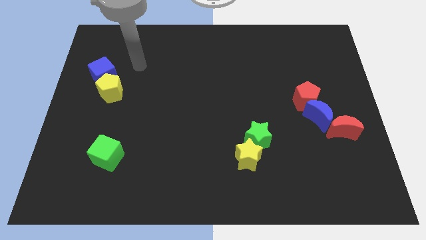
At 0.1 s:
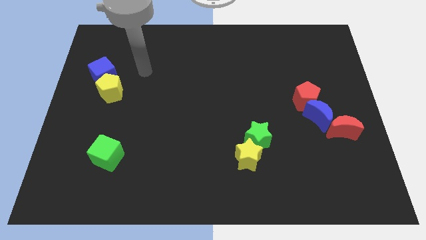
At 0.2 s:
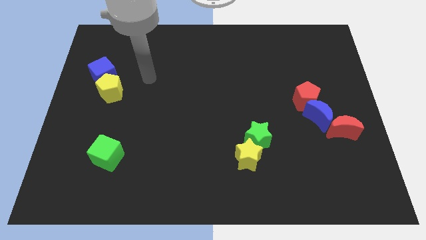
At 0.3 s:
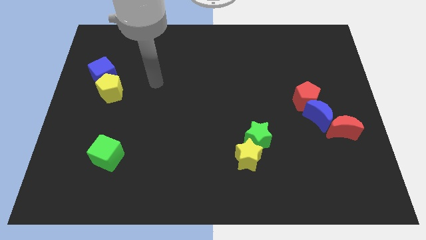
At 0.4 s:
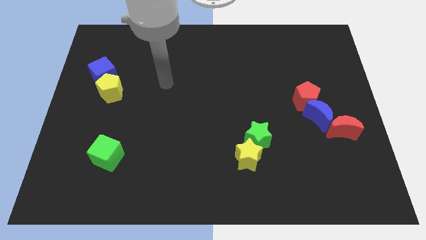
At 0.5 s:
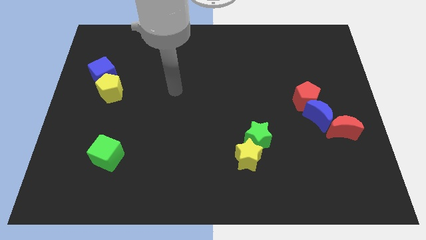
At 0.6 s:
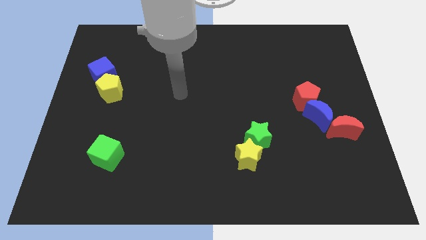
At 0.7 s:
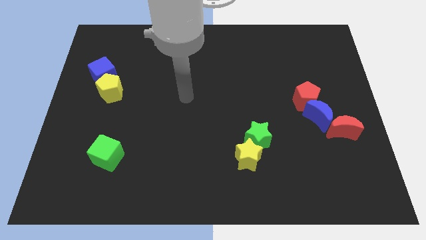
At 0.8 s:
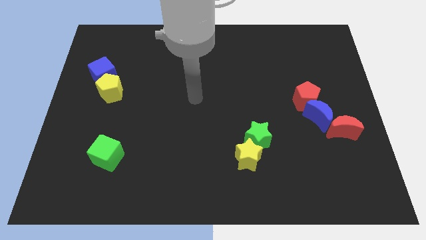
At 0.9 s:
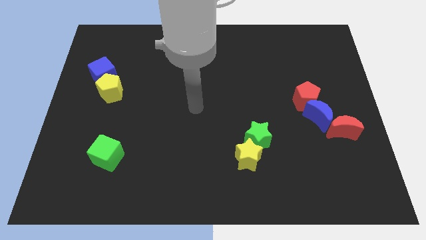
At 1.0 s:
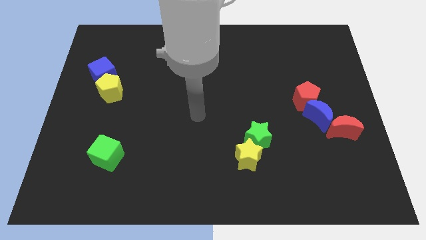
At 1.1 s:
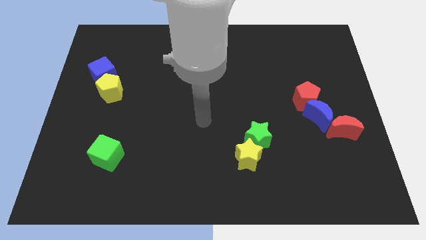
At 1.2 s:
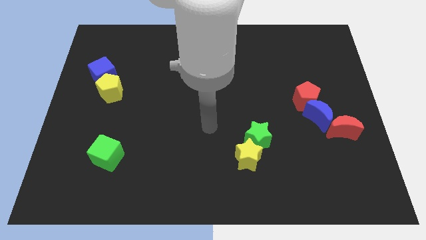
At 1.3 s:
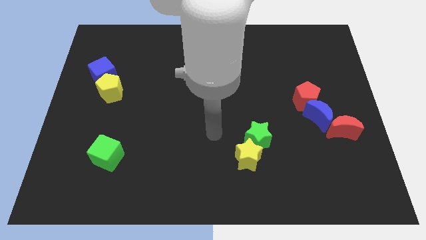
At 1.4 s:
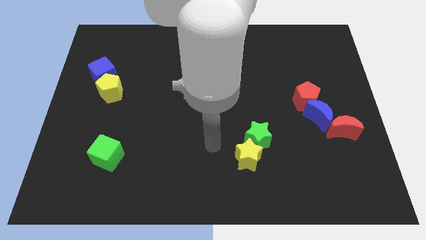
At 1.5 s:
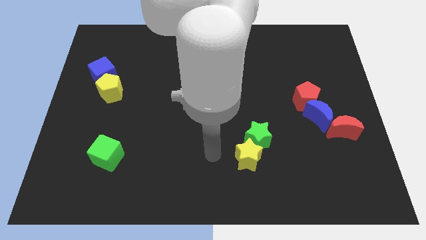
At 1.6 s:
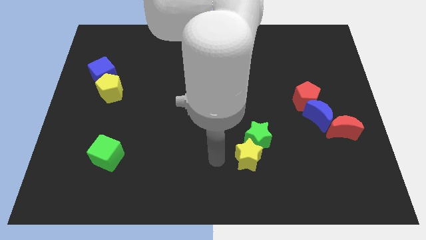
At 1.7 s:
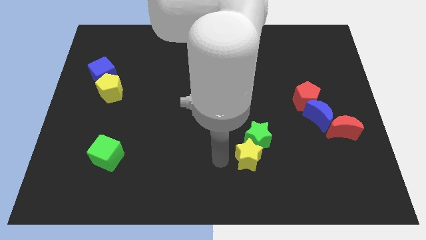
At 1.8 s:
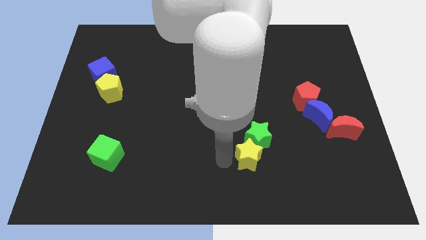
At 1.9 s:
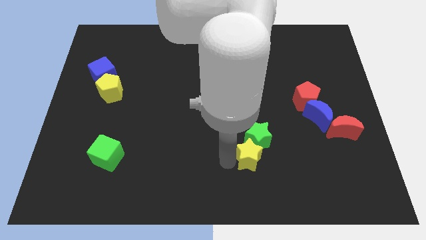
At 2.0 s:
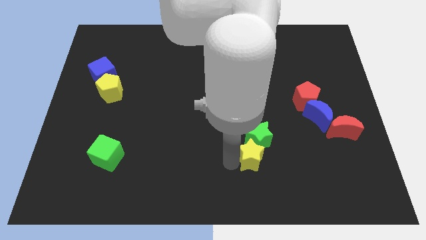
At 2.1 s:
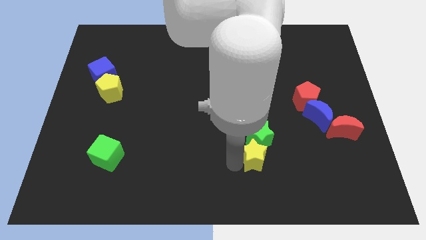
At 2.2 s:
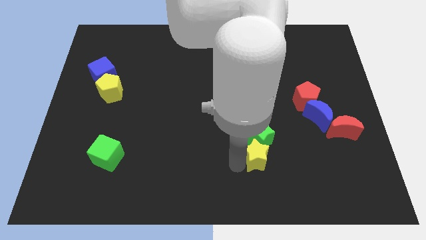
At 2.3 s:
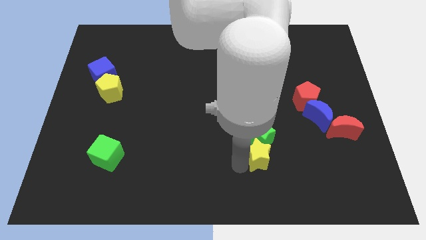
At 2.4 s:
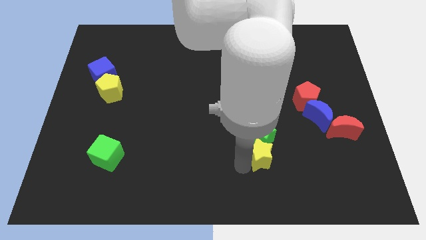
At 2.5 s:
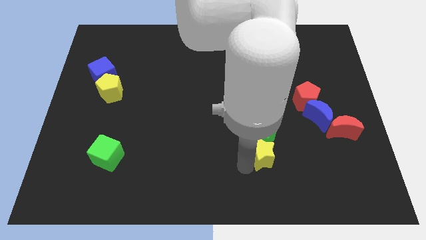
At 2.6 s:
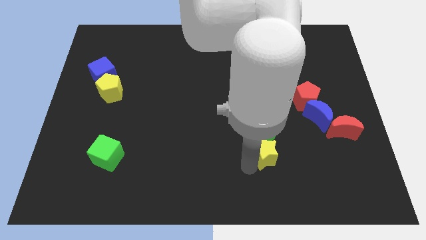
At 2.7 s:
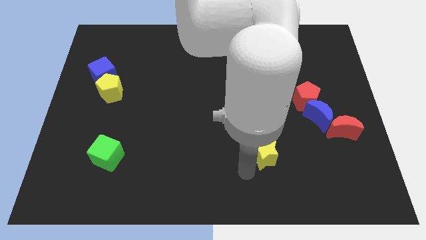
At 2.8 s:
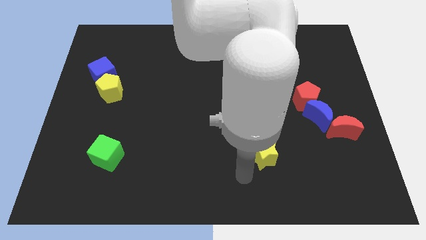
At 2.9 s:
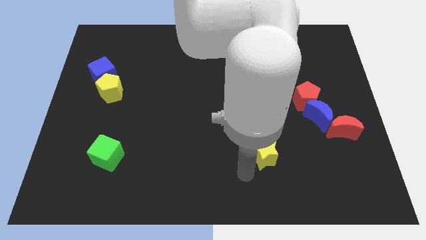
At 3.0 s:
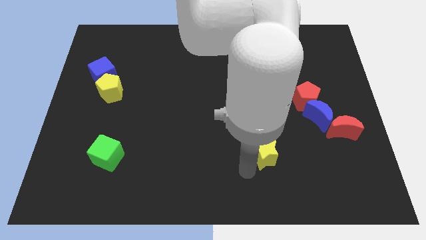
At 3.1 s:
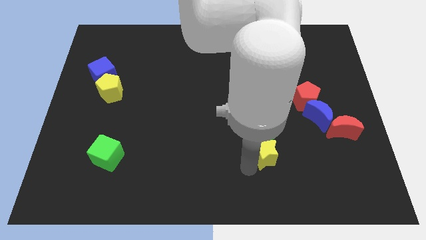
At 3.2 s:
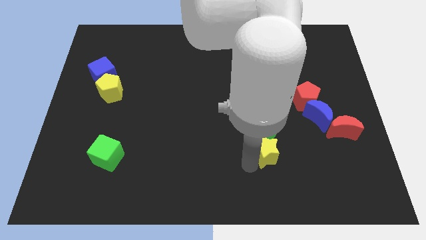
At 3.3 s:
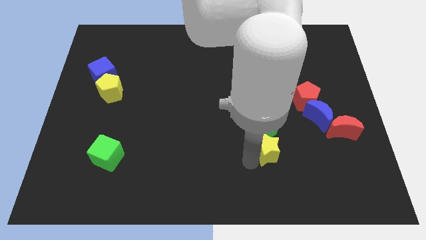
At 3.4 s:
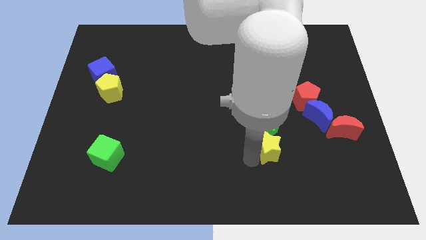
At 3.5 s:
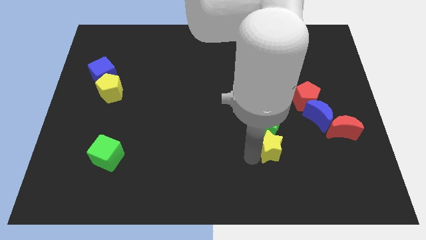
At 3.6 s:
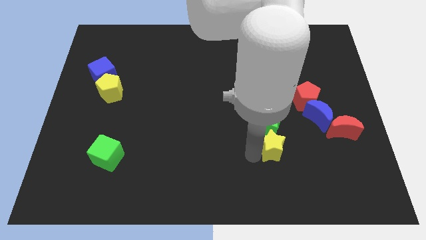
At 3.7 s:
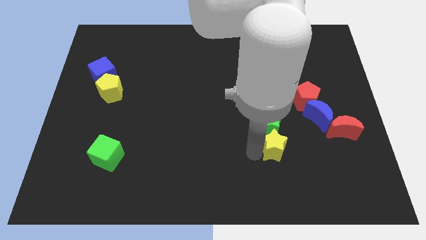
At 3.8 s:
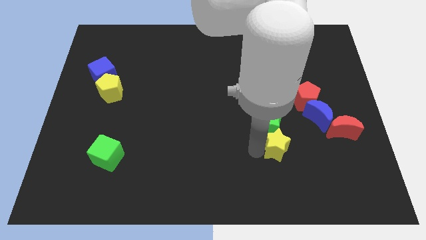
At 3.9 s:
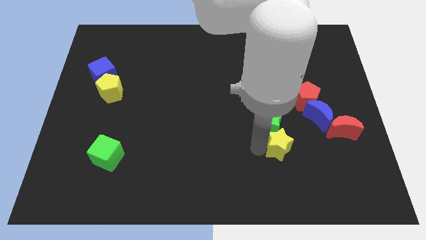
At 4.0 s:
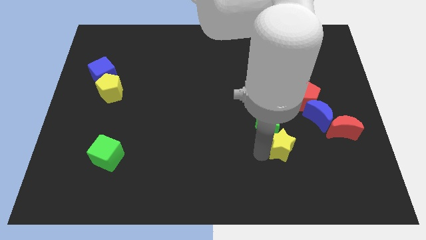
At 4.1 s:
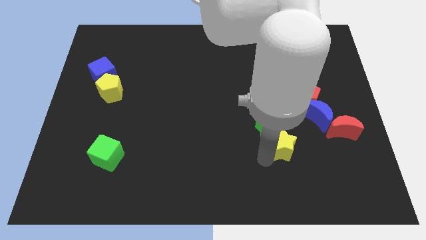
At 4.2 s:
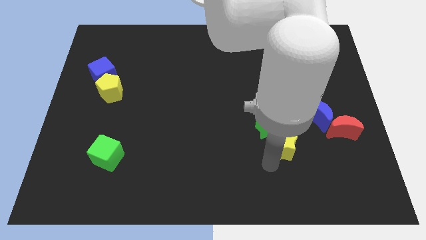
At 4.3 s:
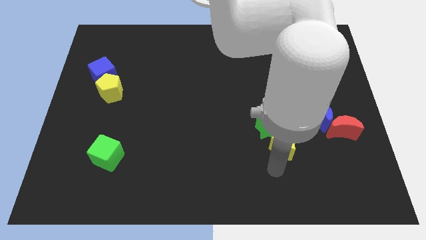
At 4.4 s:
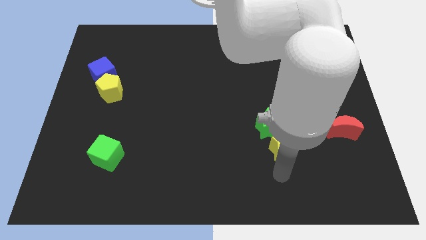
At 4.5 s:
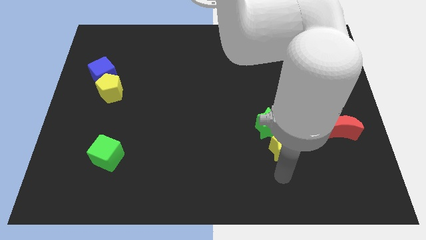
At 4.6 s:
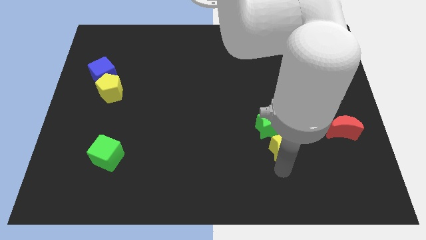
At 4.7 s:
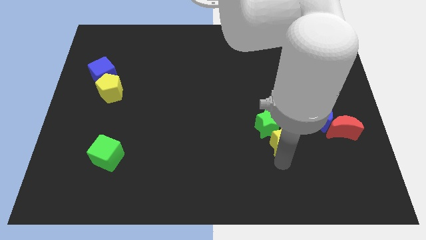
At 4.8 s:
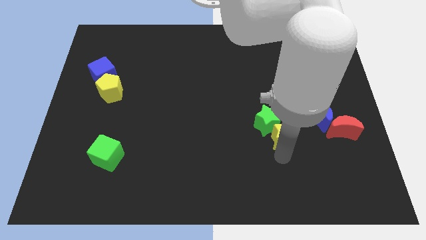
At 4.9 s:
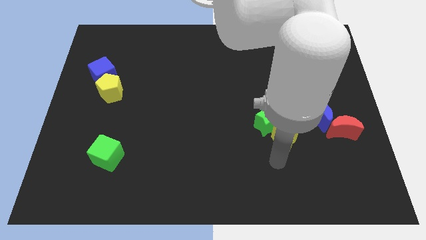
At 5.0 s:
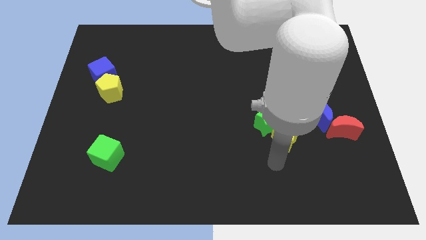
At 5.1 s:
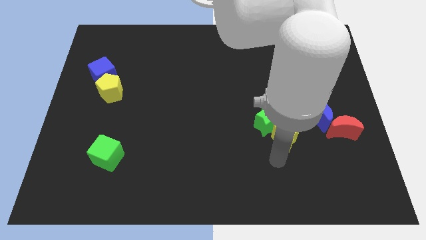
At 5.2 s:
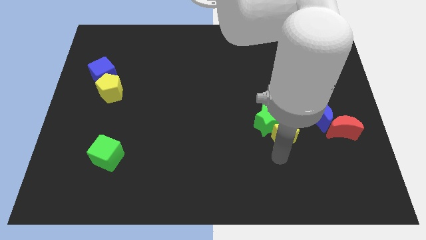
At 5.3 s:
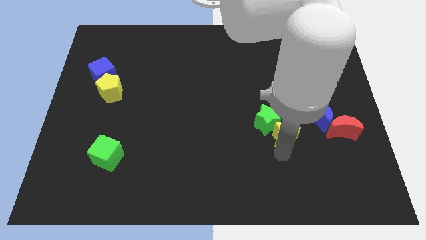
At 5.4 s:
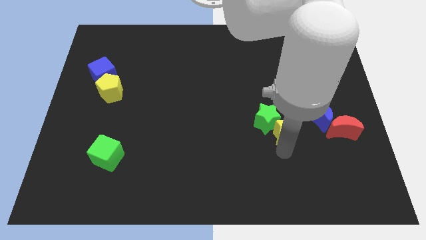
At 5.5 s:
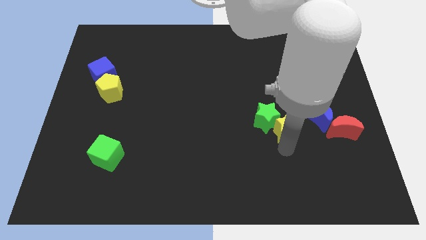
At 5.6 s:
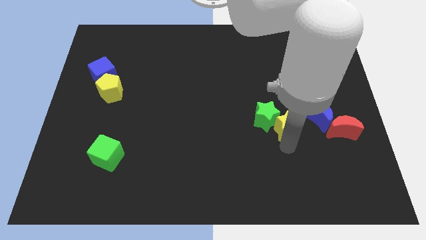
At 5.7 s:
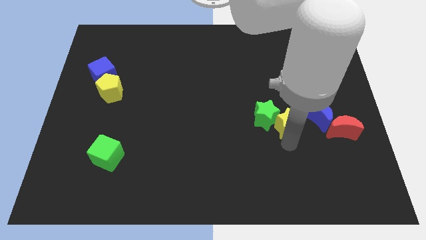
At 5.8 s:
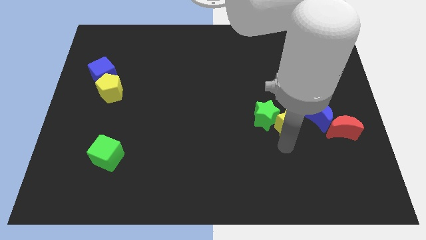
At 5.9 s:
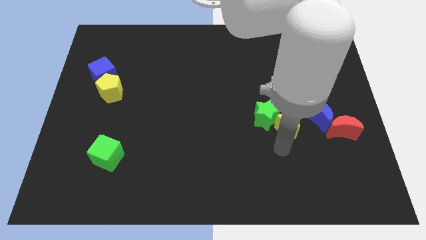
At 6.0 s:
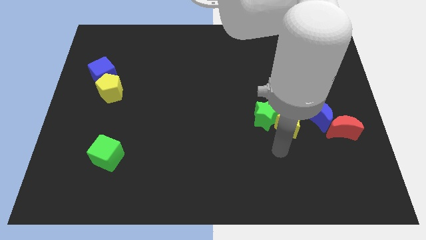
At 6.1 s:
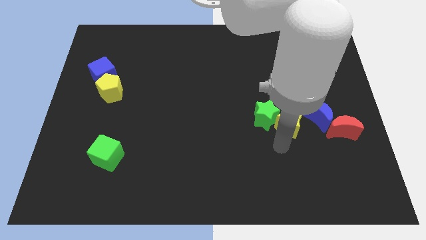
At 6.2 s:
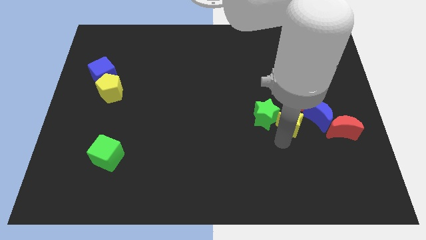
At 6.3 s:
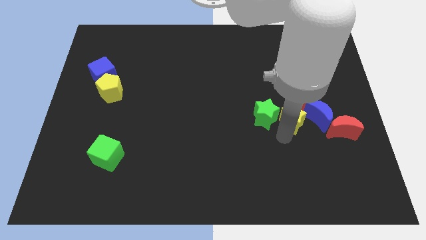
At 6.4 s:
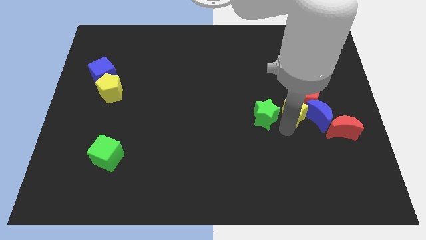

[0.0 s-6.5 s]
move the yellow star next to the red pentagon
